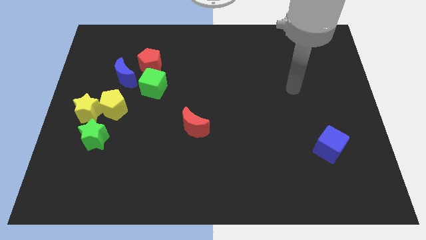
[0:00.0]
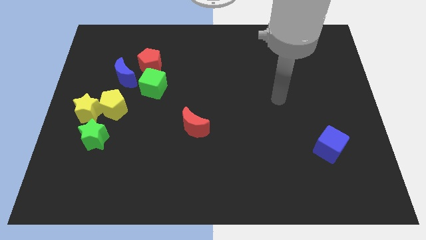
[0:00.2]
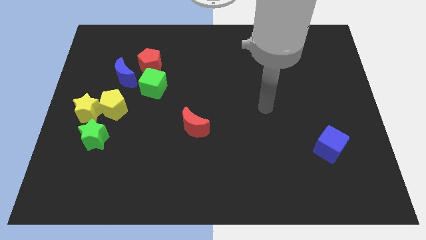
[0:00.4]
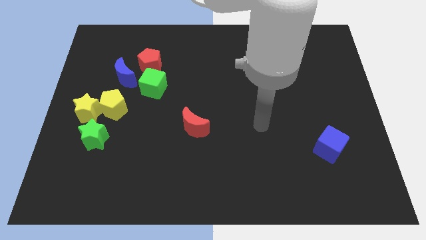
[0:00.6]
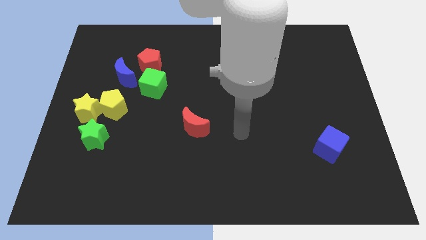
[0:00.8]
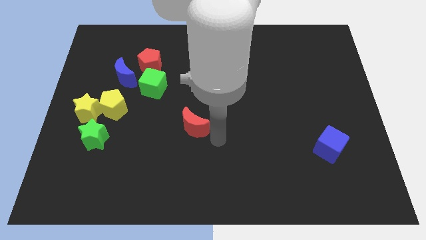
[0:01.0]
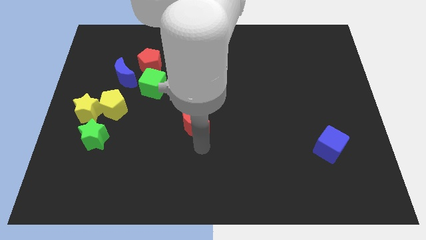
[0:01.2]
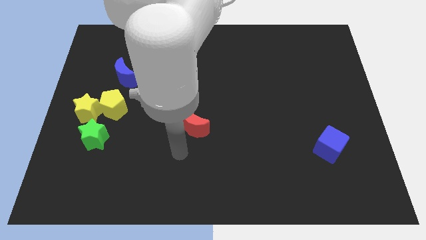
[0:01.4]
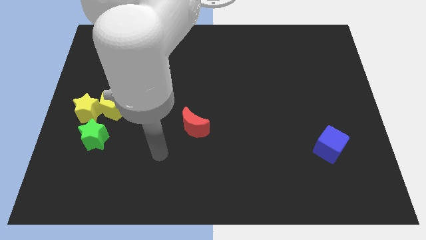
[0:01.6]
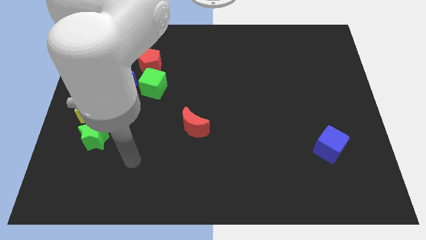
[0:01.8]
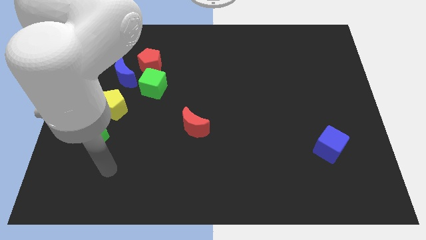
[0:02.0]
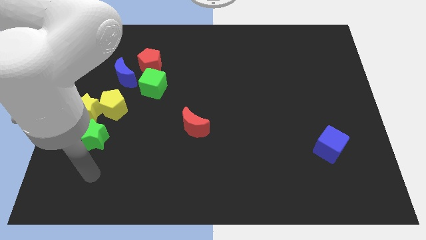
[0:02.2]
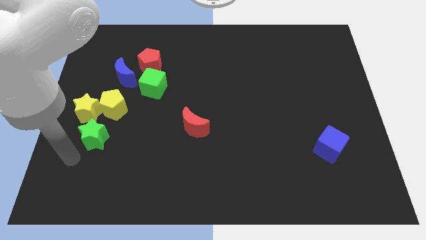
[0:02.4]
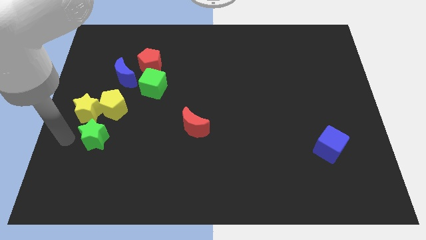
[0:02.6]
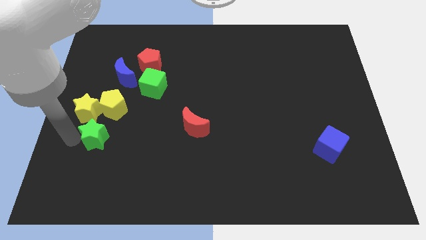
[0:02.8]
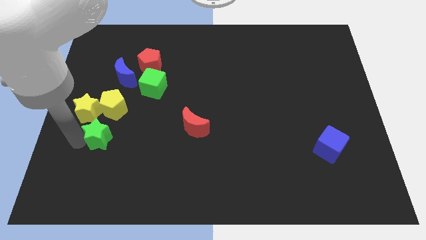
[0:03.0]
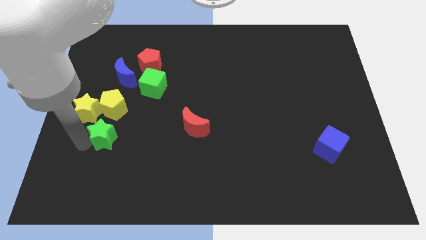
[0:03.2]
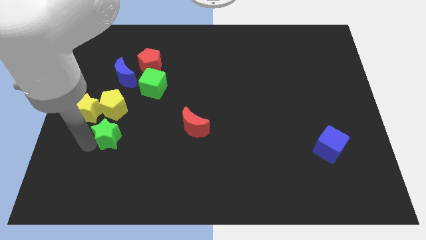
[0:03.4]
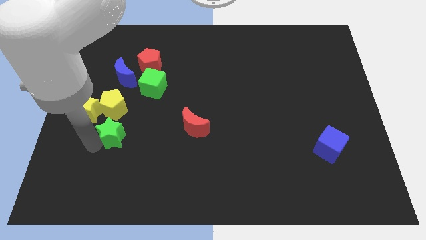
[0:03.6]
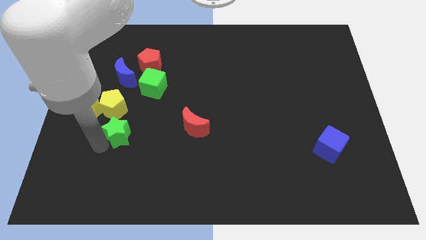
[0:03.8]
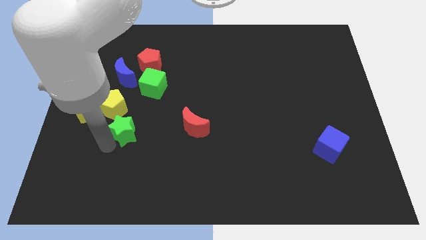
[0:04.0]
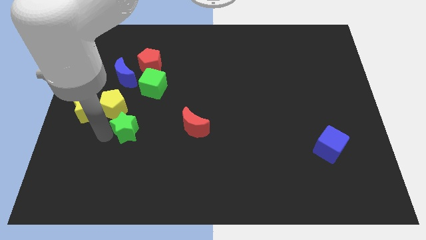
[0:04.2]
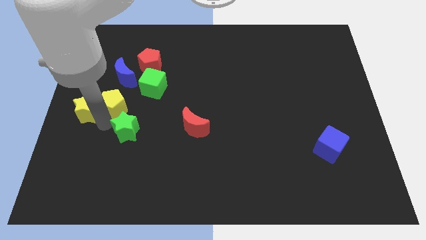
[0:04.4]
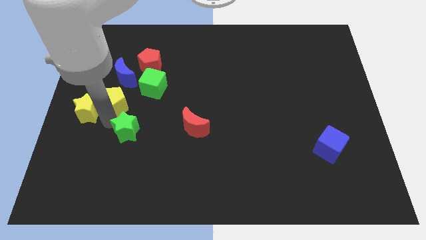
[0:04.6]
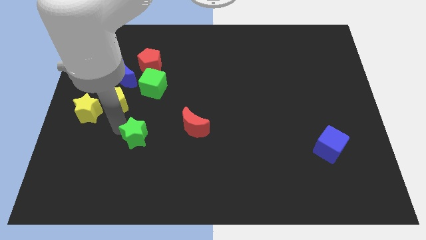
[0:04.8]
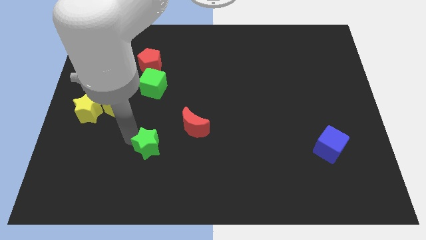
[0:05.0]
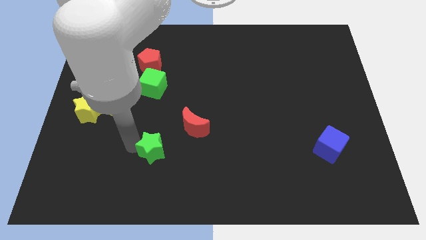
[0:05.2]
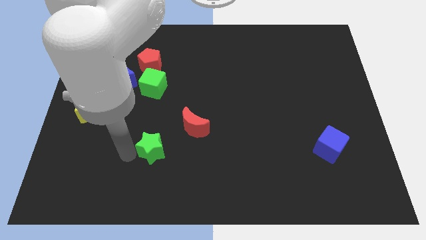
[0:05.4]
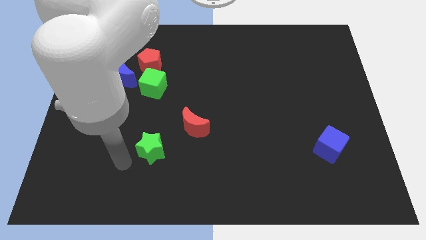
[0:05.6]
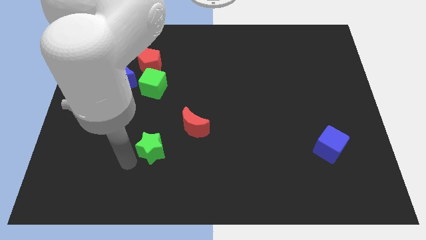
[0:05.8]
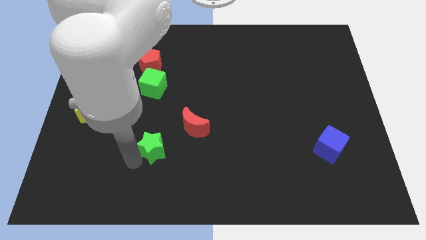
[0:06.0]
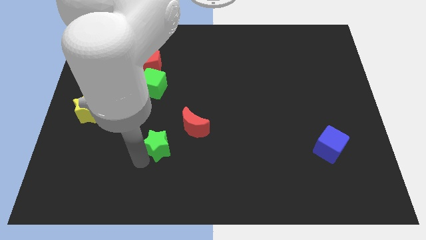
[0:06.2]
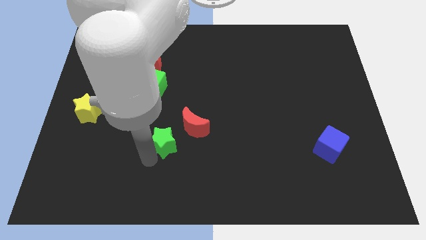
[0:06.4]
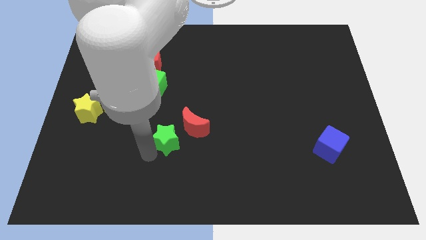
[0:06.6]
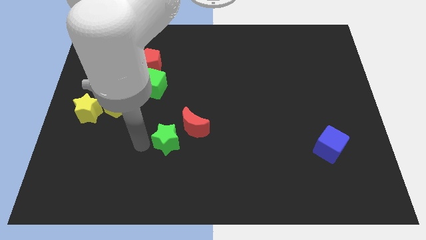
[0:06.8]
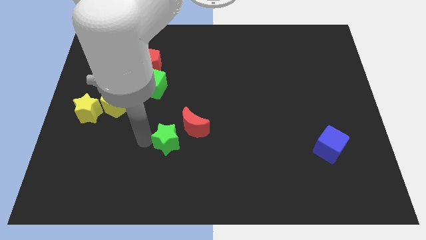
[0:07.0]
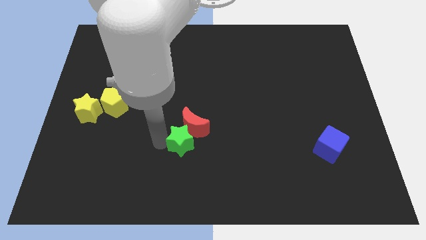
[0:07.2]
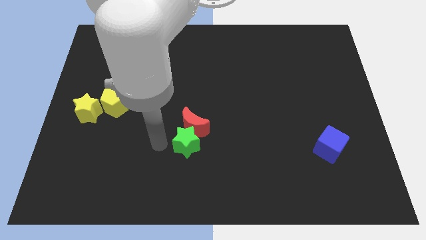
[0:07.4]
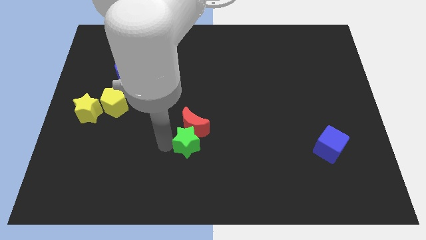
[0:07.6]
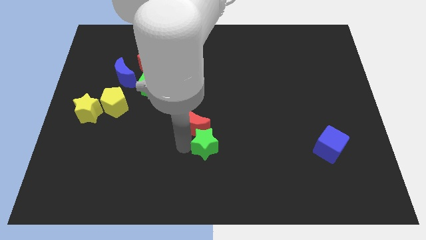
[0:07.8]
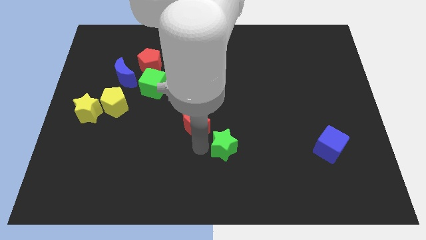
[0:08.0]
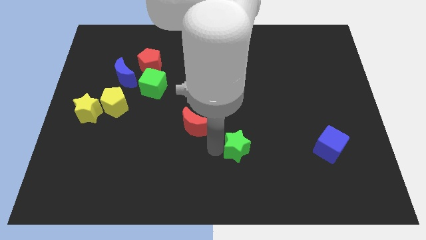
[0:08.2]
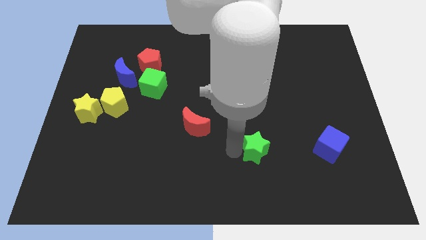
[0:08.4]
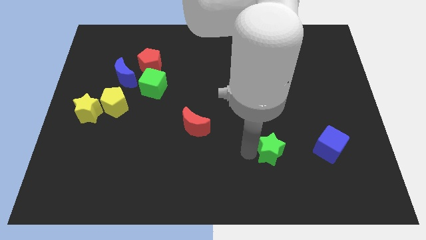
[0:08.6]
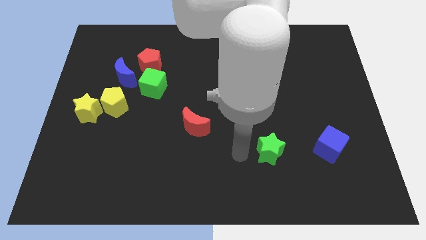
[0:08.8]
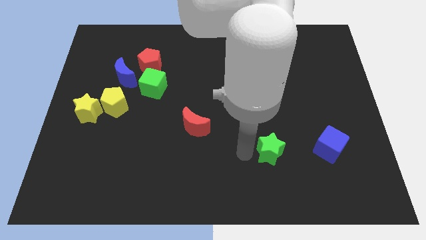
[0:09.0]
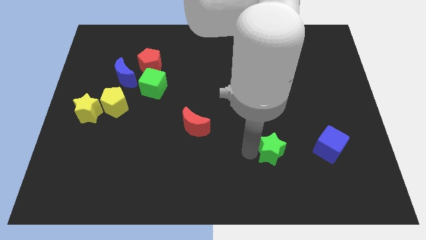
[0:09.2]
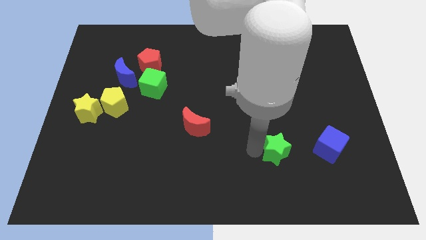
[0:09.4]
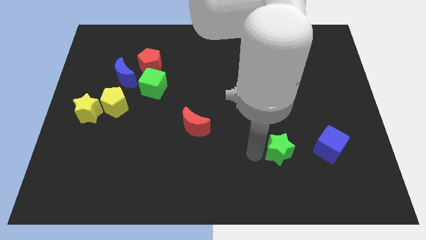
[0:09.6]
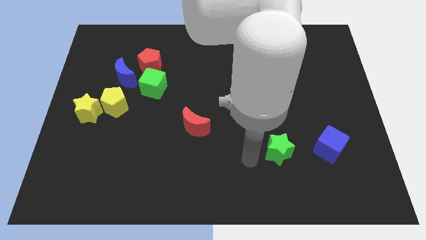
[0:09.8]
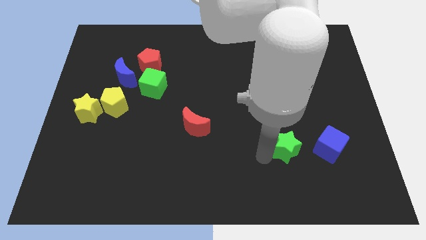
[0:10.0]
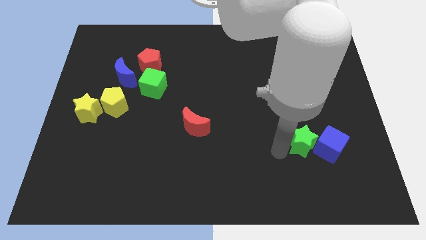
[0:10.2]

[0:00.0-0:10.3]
put the green star to the blue cube

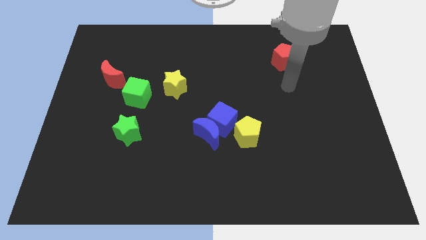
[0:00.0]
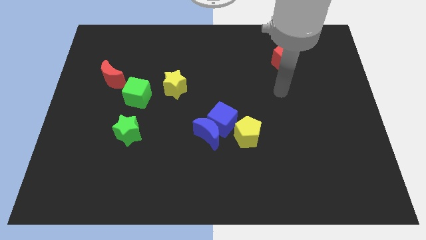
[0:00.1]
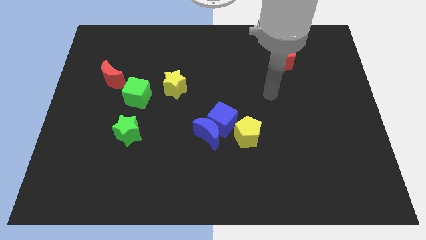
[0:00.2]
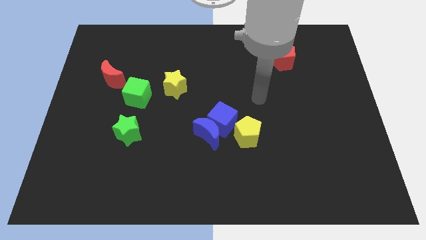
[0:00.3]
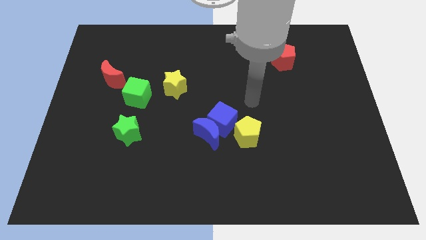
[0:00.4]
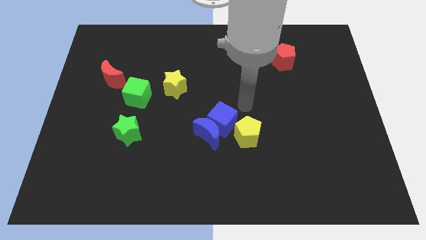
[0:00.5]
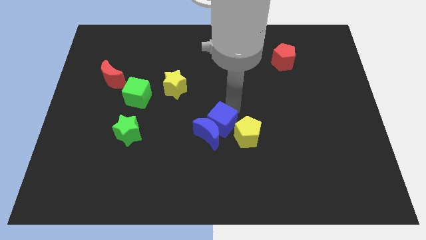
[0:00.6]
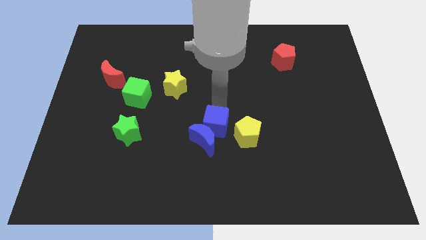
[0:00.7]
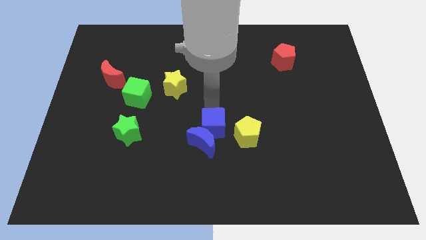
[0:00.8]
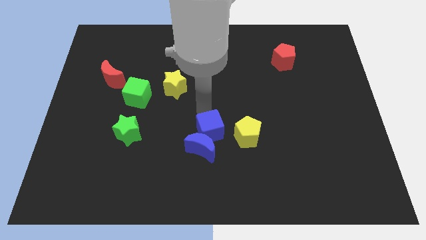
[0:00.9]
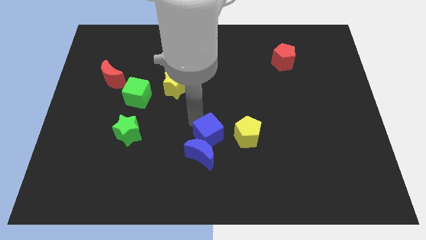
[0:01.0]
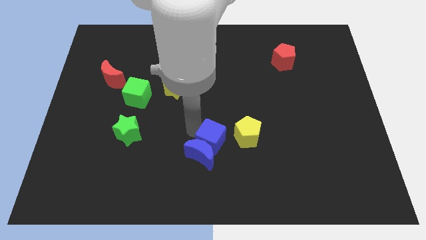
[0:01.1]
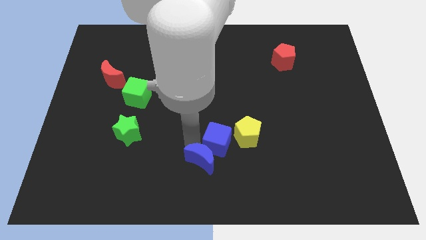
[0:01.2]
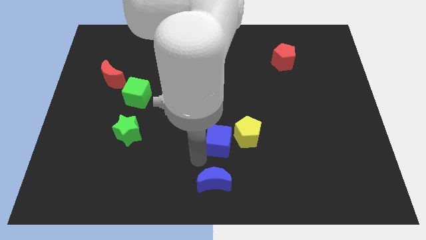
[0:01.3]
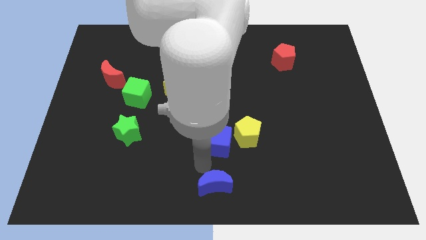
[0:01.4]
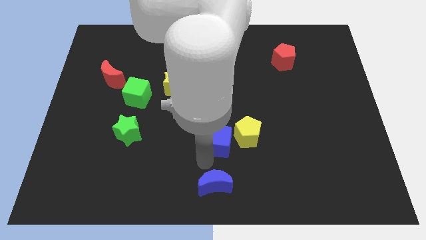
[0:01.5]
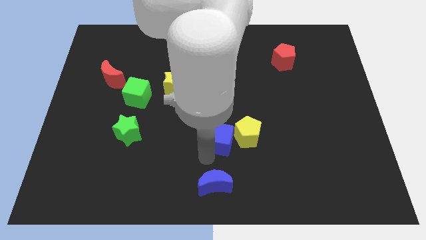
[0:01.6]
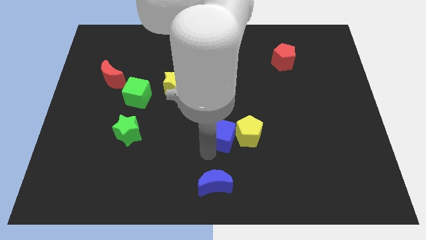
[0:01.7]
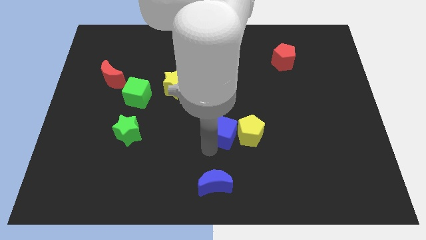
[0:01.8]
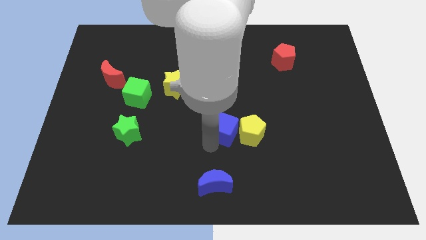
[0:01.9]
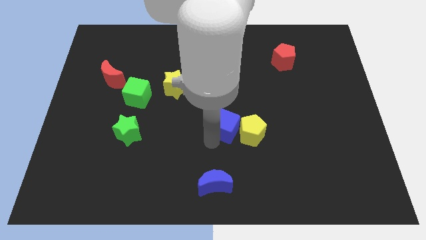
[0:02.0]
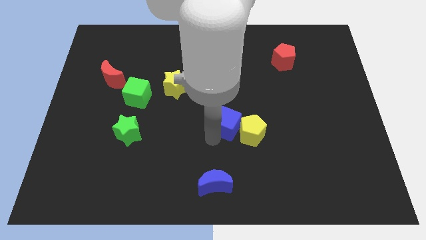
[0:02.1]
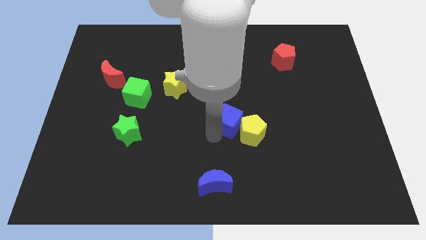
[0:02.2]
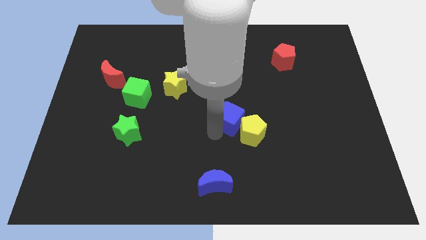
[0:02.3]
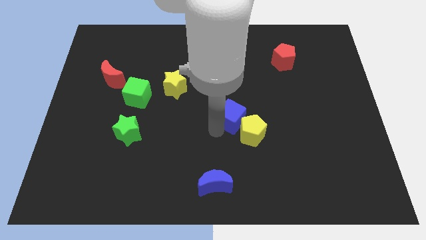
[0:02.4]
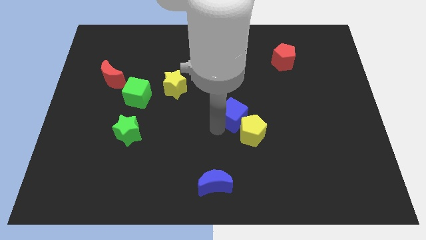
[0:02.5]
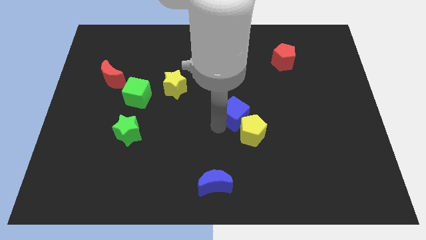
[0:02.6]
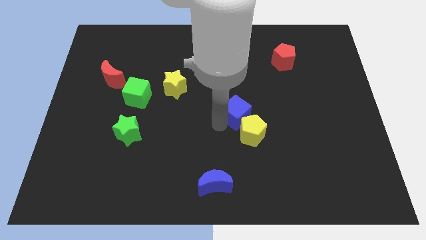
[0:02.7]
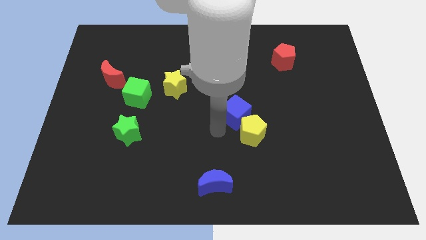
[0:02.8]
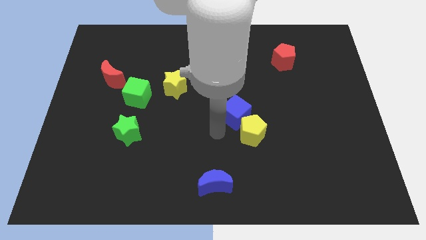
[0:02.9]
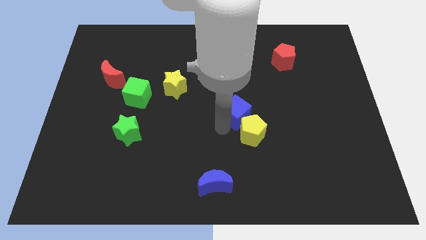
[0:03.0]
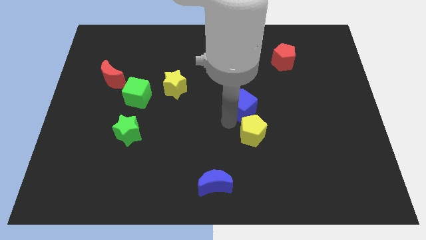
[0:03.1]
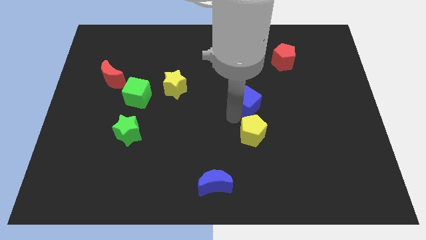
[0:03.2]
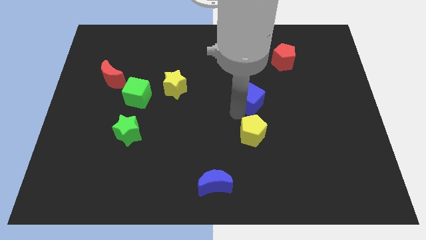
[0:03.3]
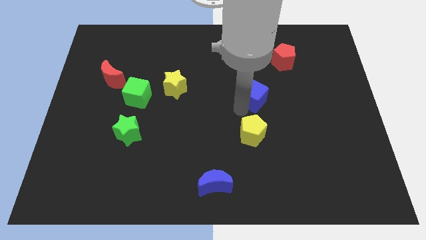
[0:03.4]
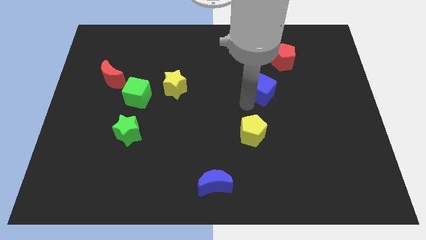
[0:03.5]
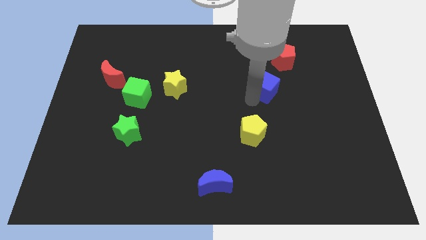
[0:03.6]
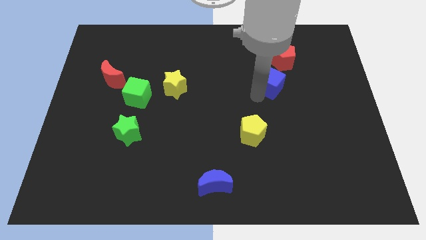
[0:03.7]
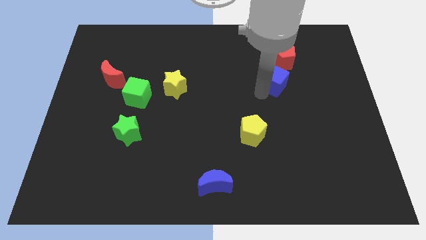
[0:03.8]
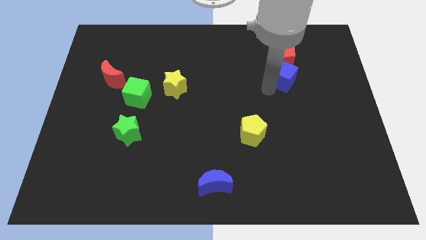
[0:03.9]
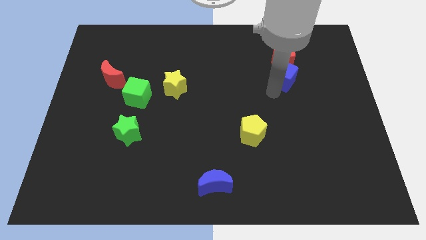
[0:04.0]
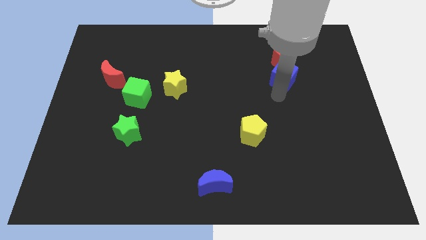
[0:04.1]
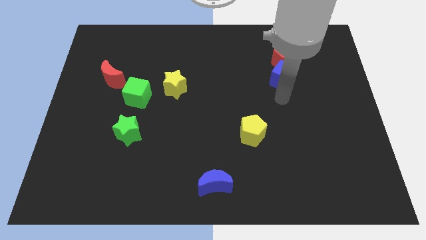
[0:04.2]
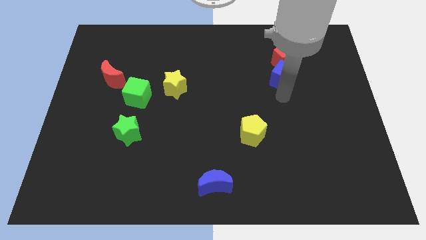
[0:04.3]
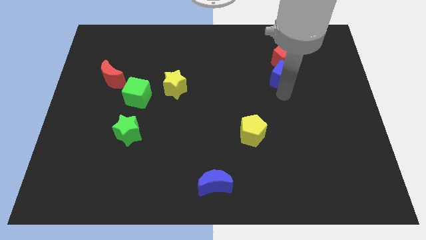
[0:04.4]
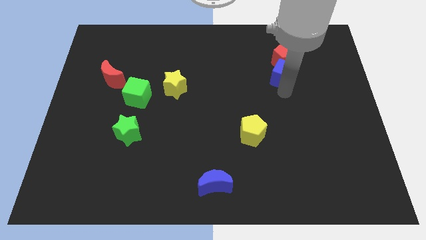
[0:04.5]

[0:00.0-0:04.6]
slide the blue cube next to the red pentagon
